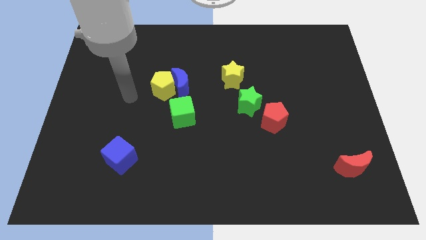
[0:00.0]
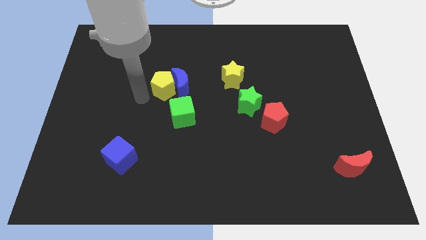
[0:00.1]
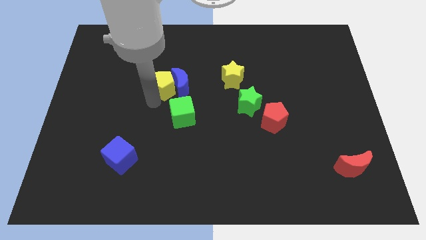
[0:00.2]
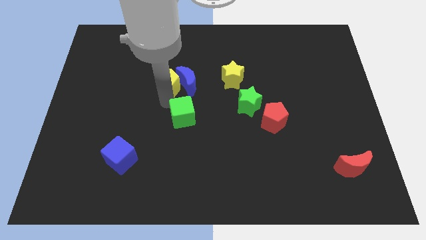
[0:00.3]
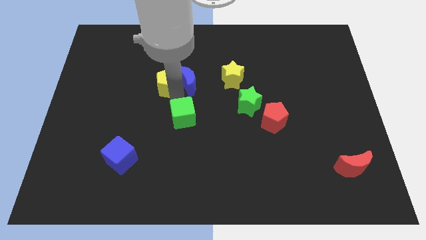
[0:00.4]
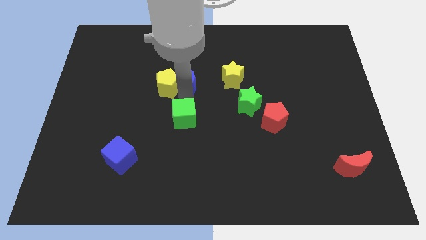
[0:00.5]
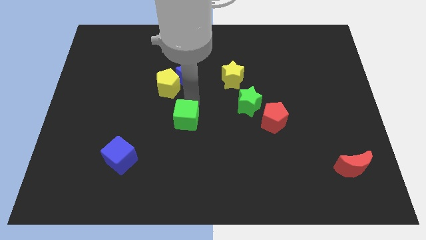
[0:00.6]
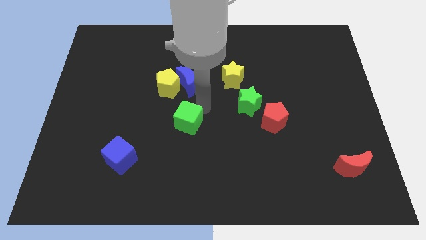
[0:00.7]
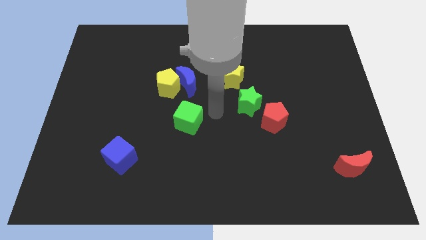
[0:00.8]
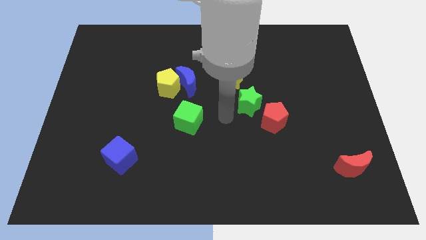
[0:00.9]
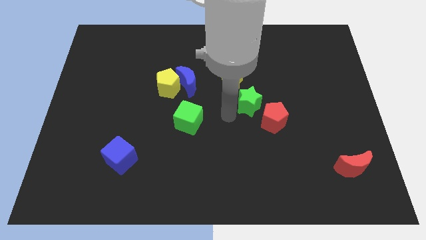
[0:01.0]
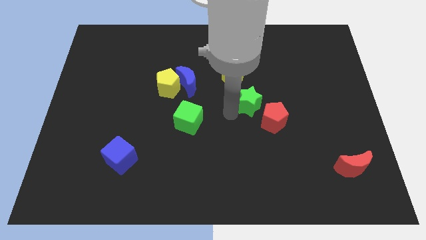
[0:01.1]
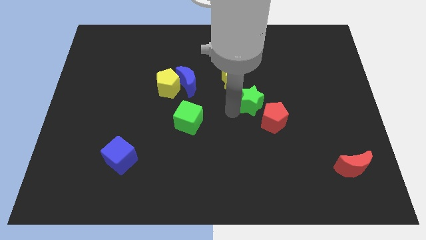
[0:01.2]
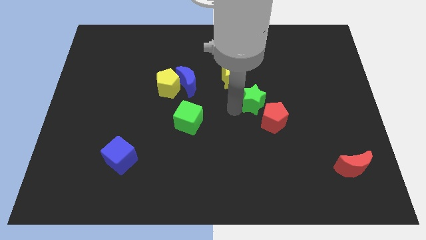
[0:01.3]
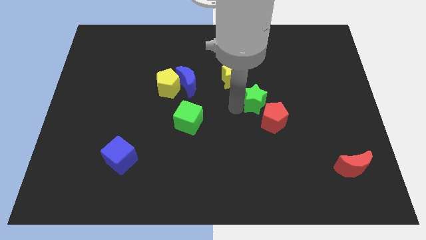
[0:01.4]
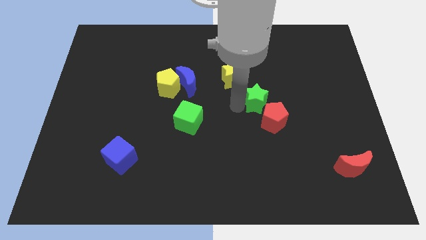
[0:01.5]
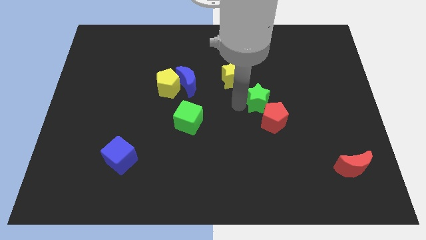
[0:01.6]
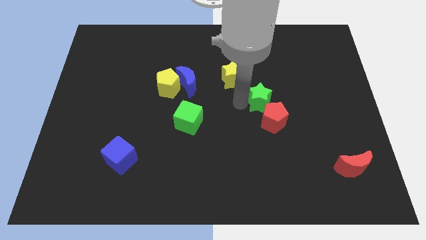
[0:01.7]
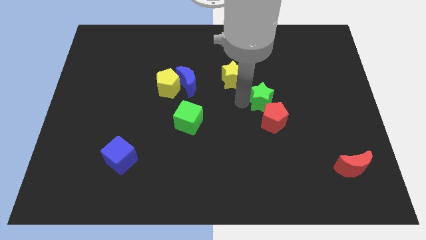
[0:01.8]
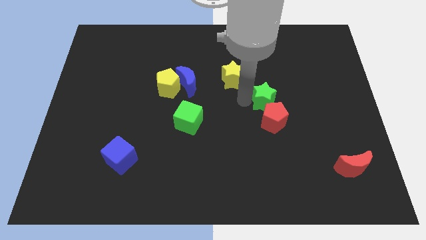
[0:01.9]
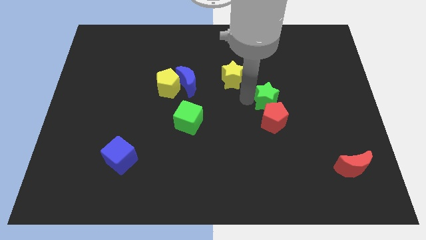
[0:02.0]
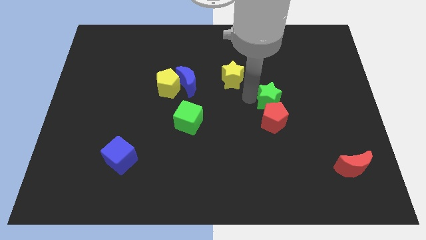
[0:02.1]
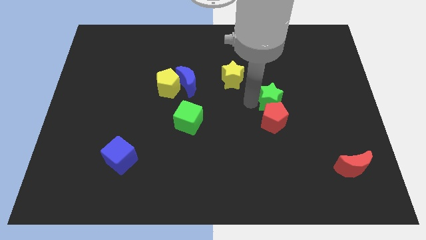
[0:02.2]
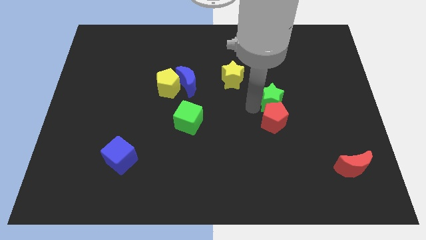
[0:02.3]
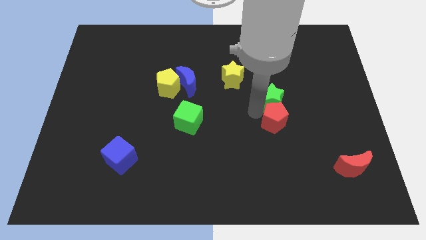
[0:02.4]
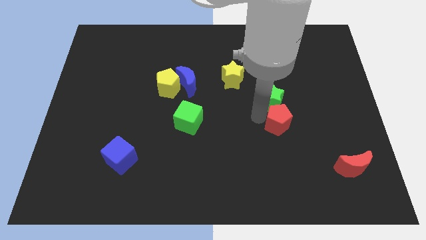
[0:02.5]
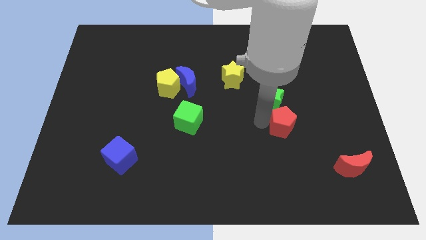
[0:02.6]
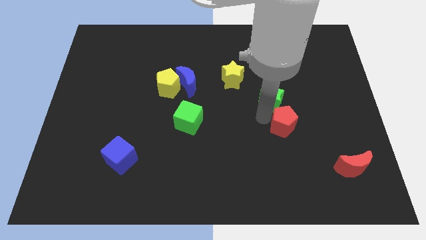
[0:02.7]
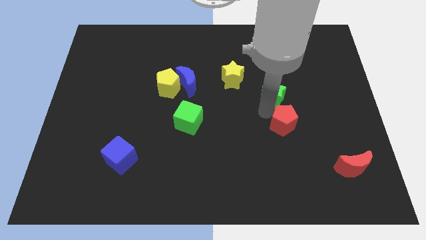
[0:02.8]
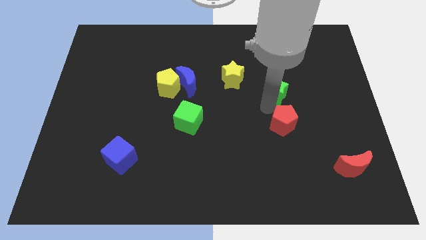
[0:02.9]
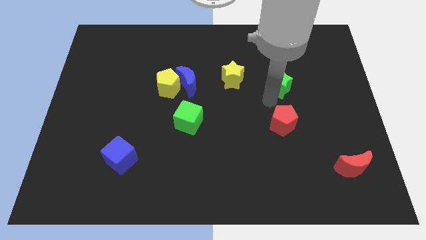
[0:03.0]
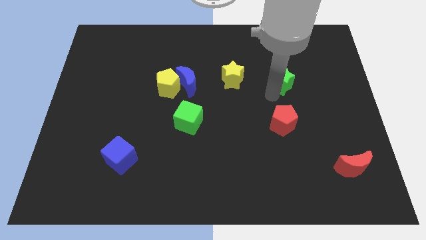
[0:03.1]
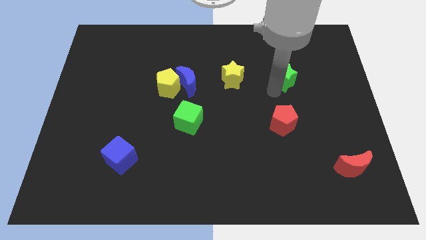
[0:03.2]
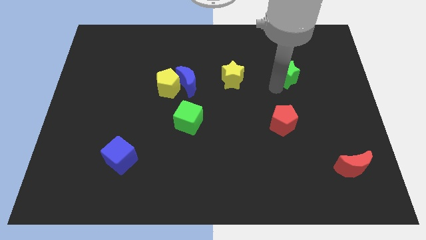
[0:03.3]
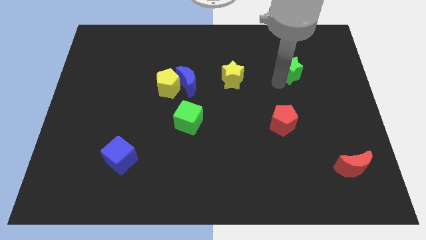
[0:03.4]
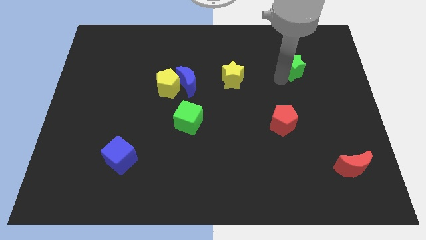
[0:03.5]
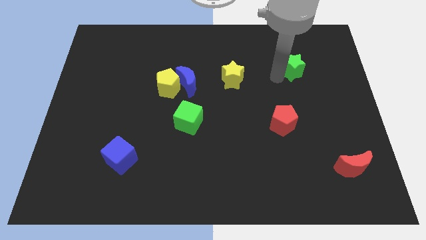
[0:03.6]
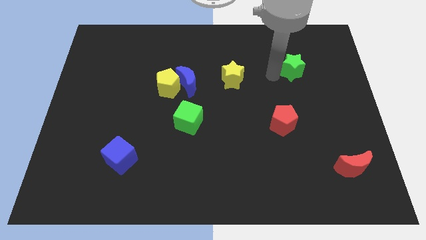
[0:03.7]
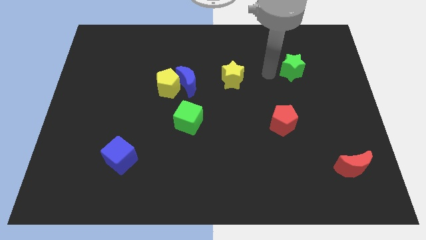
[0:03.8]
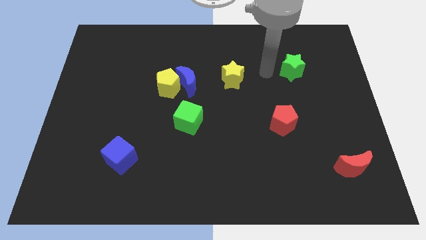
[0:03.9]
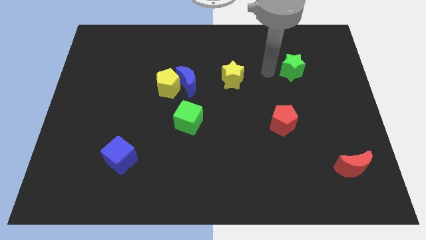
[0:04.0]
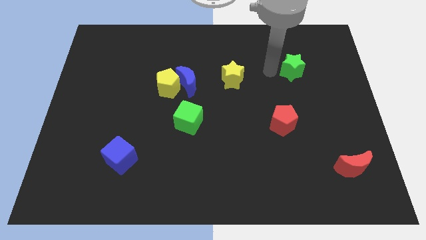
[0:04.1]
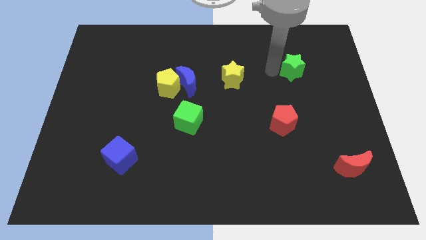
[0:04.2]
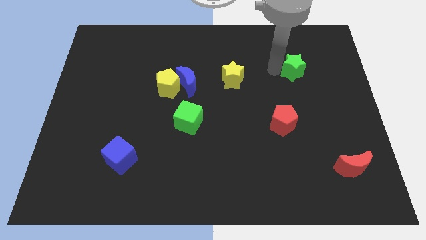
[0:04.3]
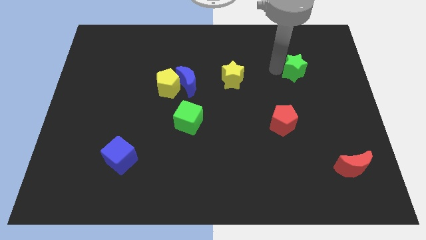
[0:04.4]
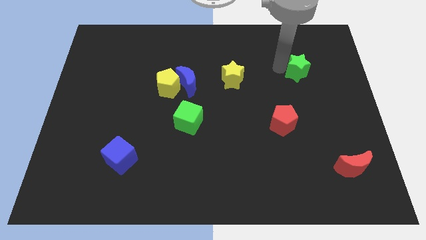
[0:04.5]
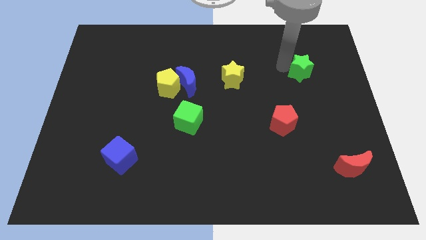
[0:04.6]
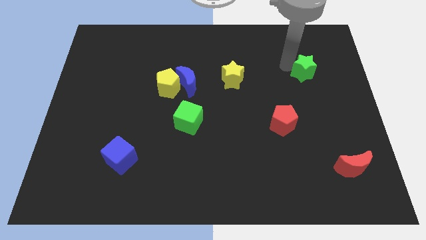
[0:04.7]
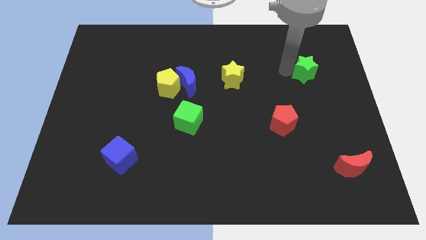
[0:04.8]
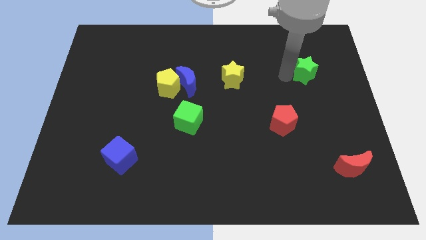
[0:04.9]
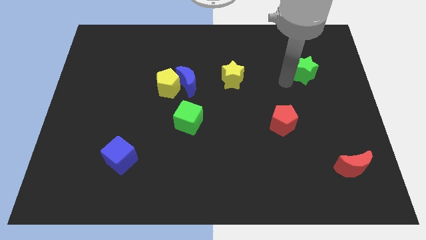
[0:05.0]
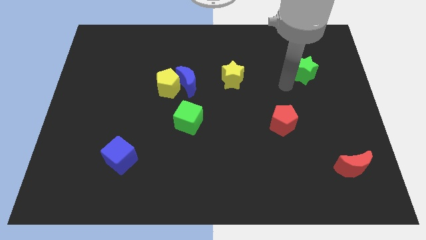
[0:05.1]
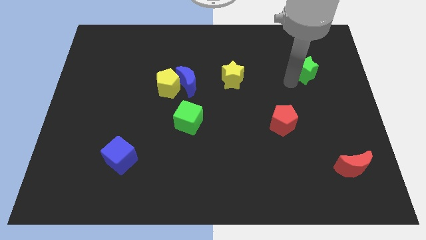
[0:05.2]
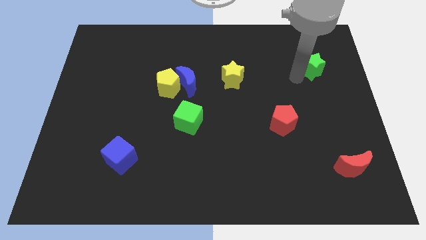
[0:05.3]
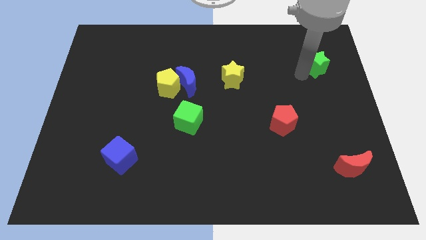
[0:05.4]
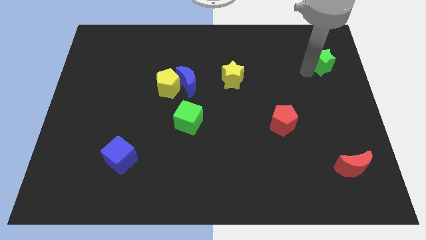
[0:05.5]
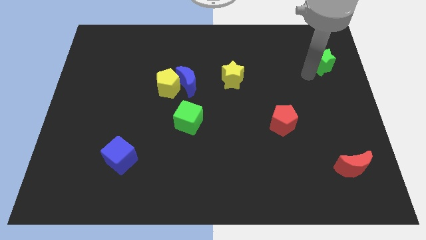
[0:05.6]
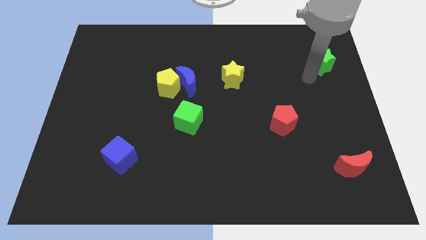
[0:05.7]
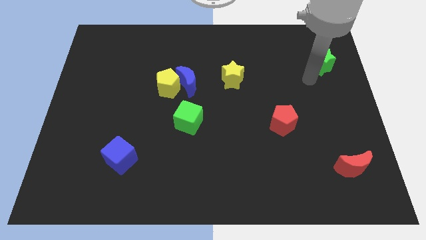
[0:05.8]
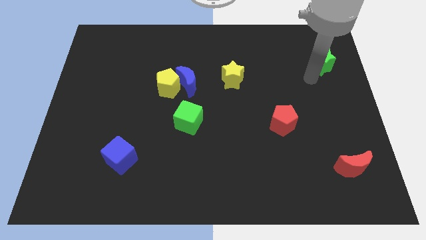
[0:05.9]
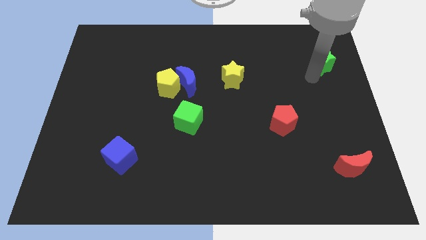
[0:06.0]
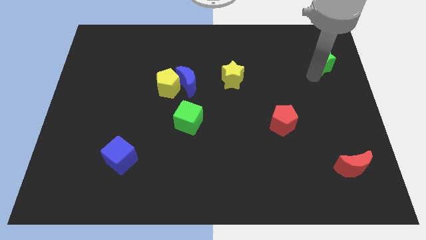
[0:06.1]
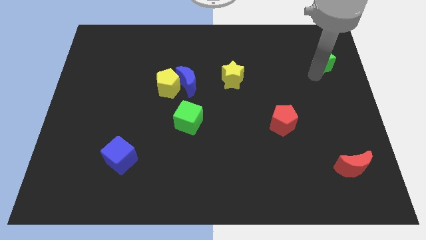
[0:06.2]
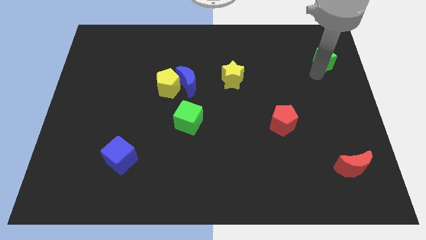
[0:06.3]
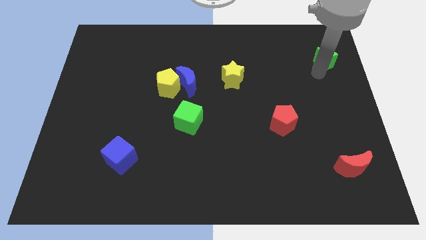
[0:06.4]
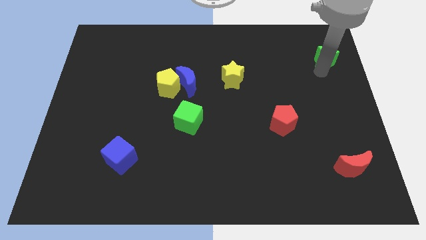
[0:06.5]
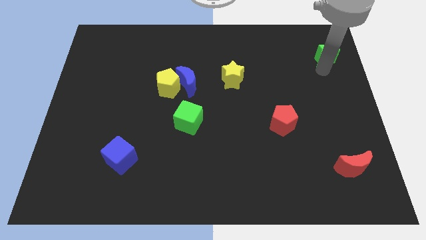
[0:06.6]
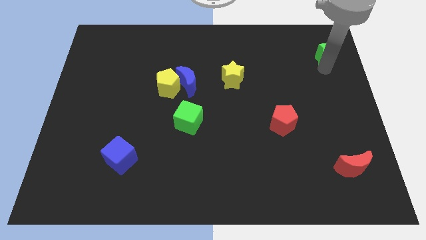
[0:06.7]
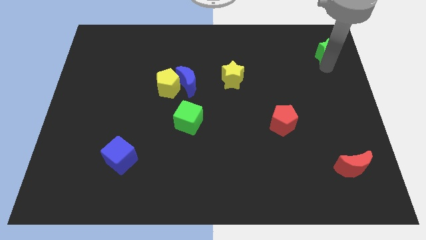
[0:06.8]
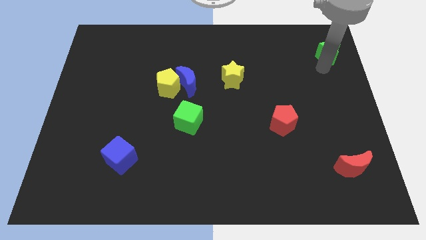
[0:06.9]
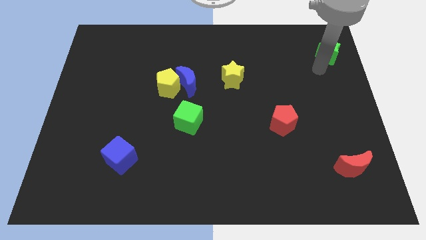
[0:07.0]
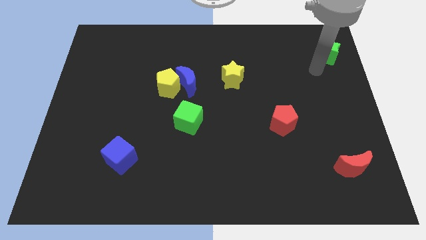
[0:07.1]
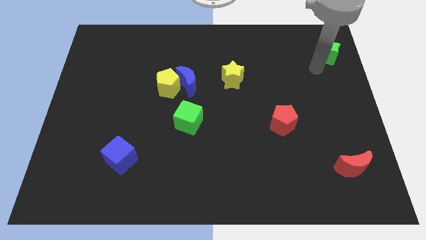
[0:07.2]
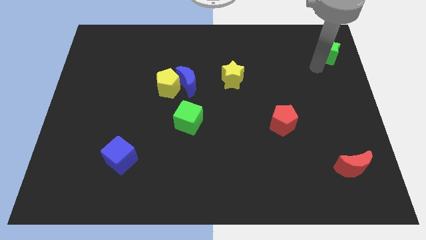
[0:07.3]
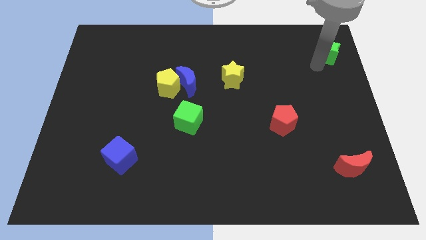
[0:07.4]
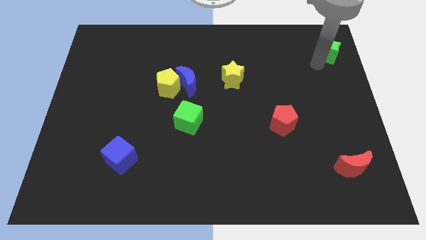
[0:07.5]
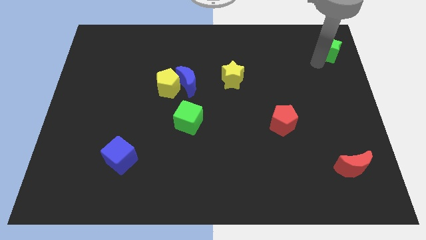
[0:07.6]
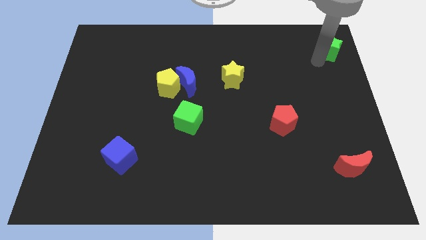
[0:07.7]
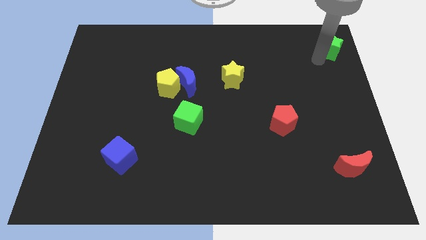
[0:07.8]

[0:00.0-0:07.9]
slide the green star to the top right of the board
